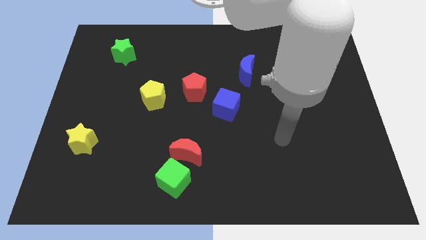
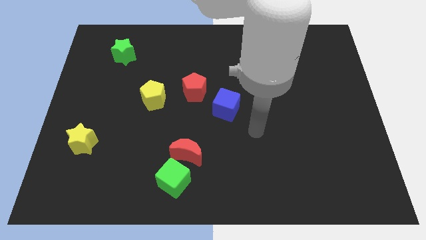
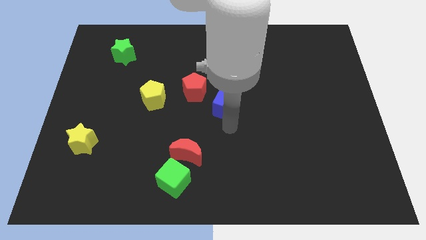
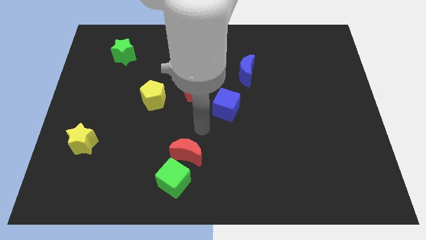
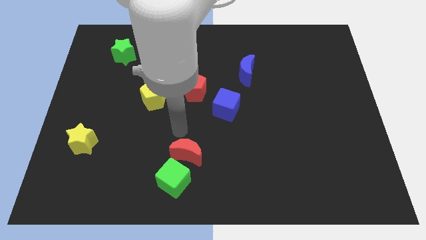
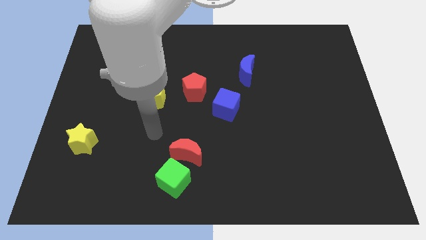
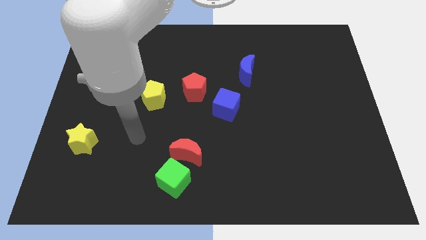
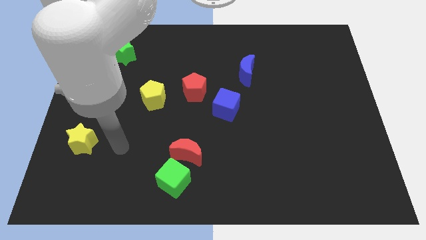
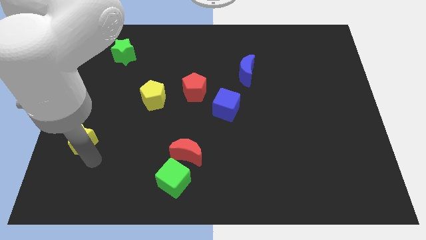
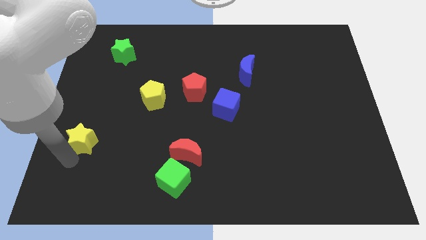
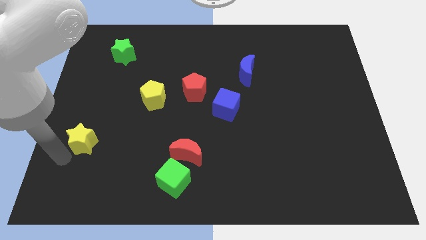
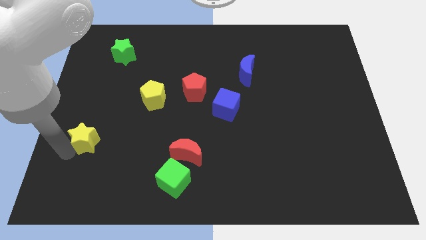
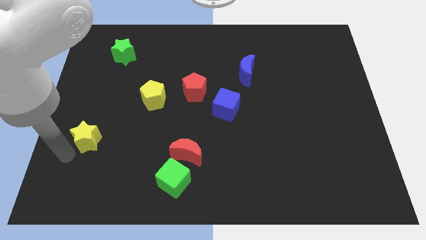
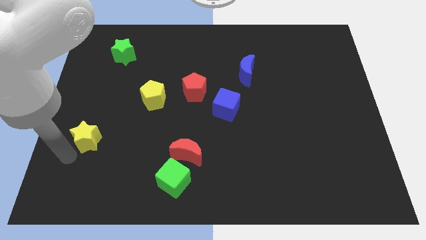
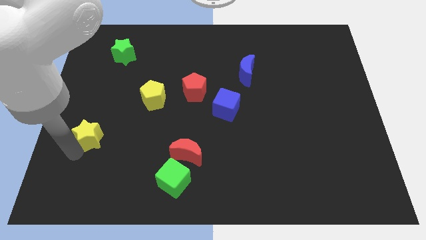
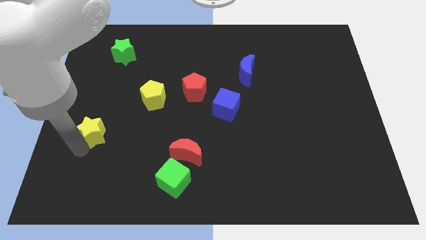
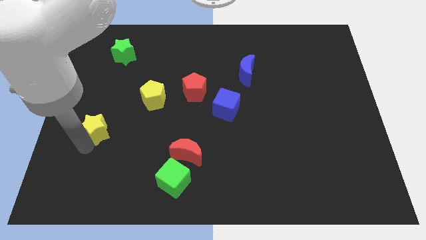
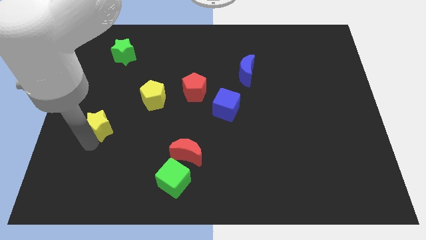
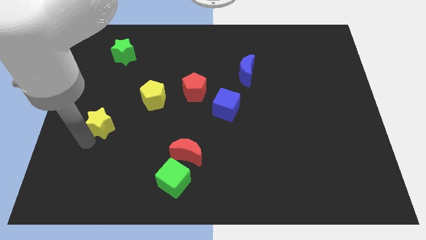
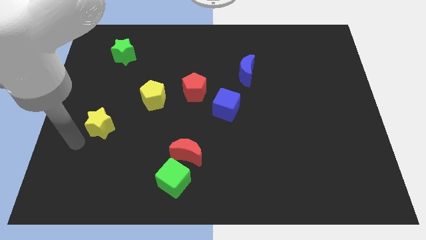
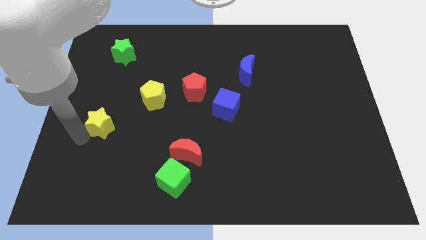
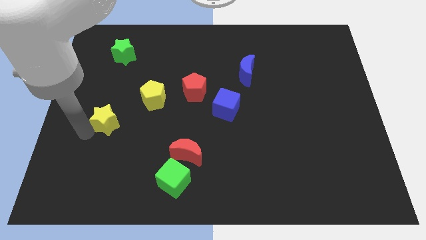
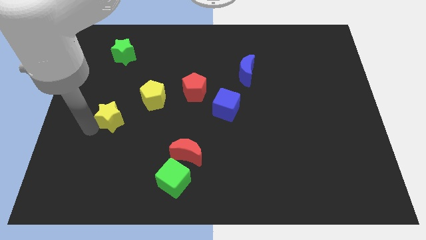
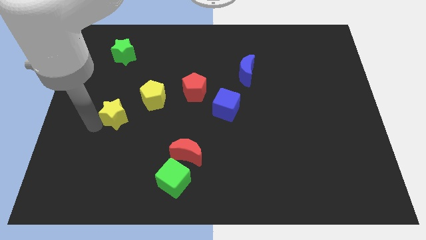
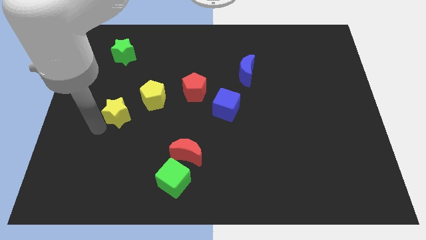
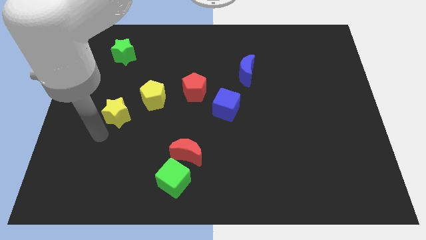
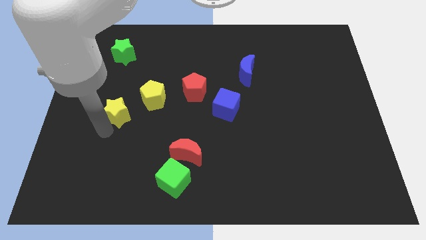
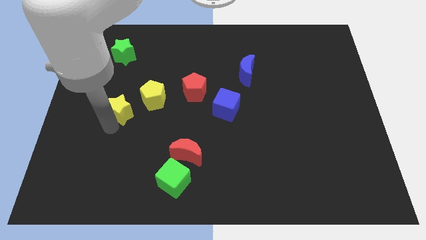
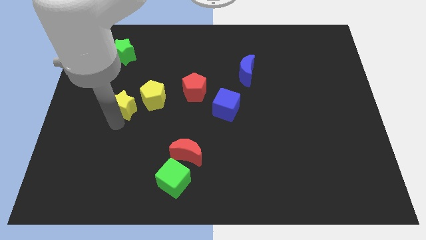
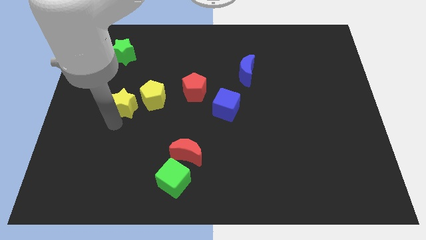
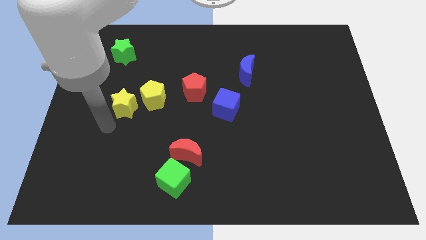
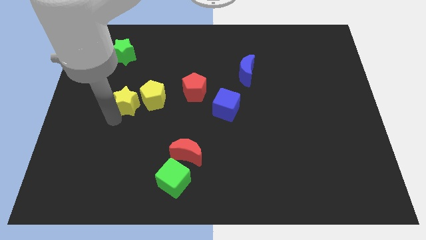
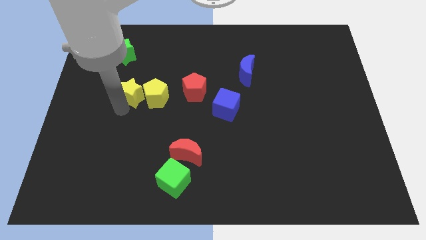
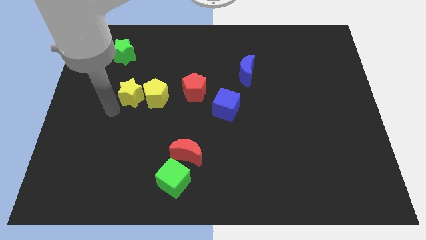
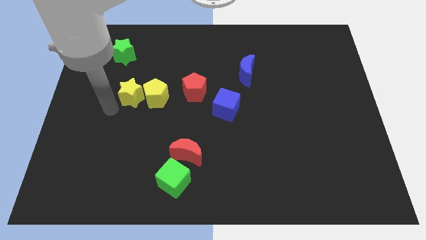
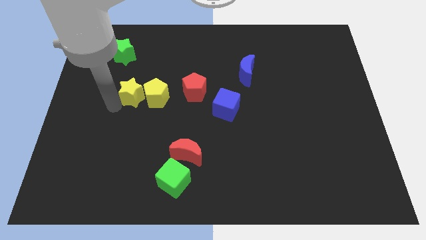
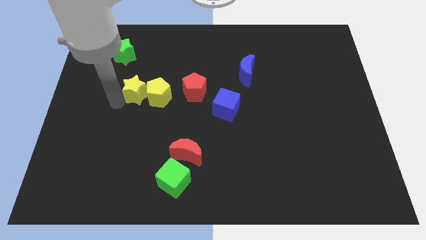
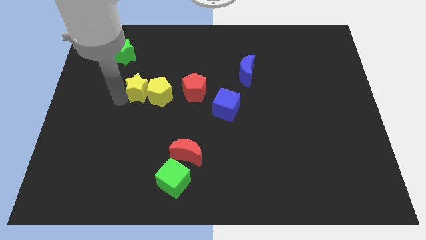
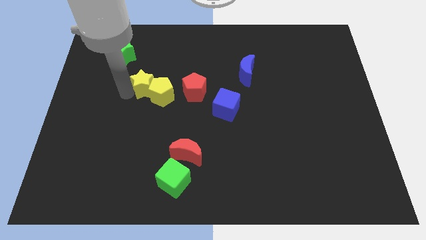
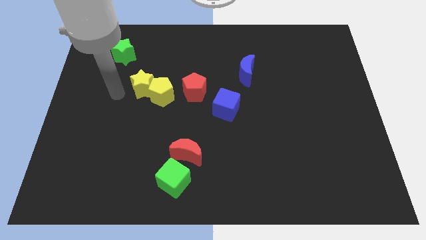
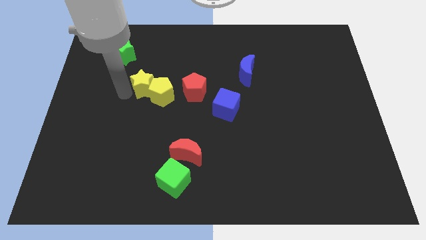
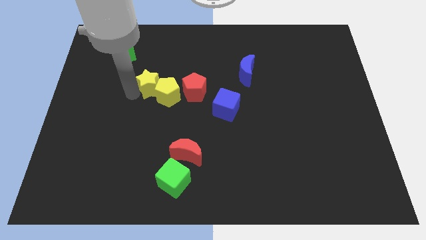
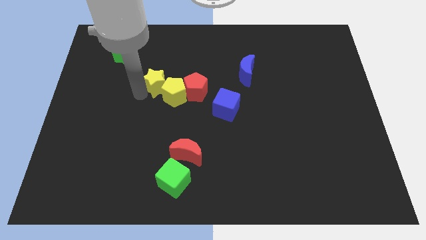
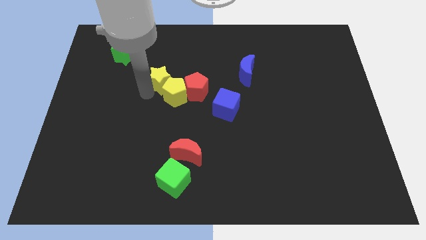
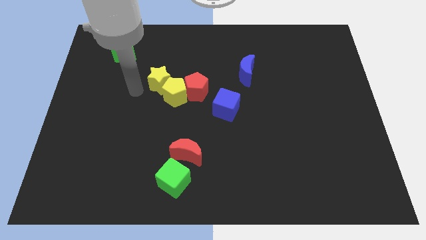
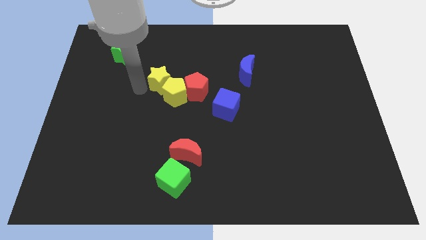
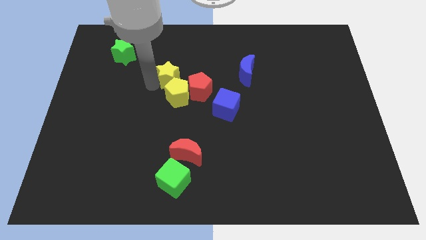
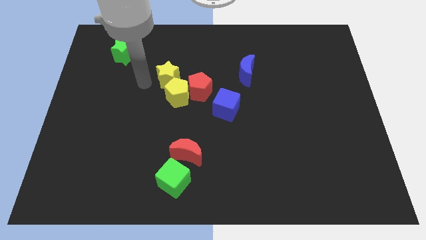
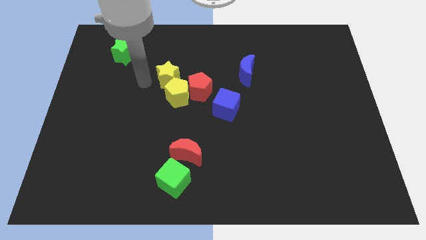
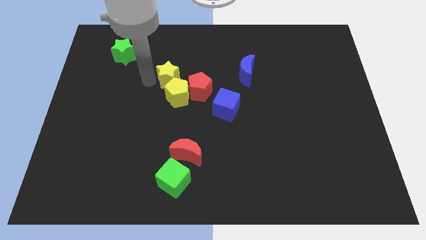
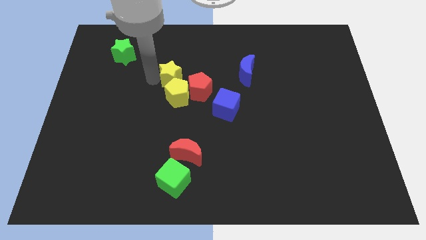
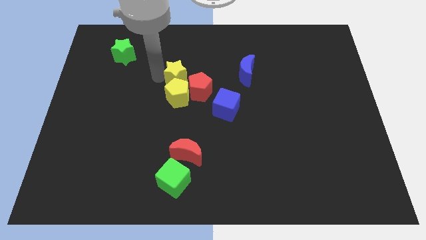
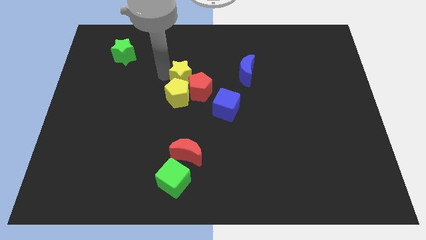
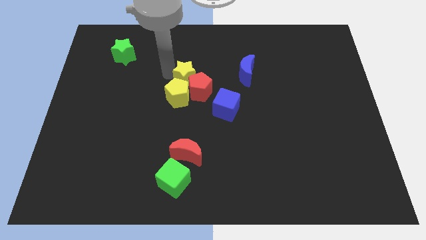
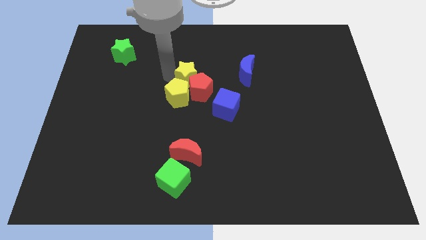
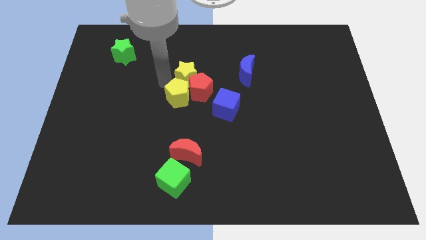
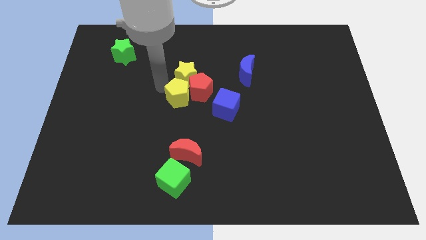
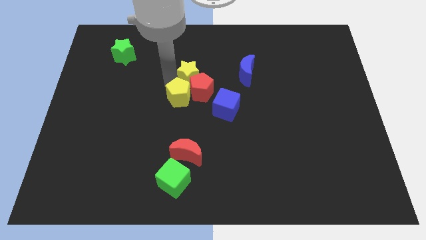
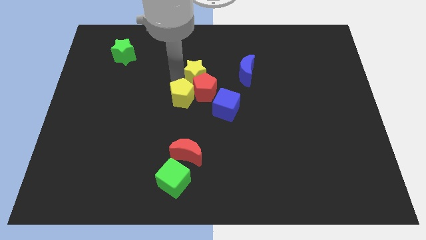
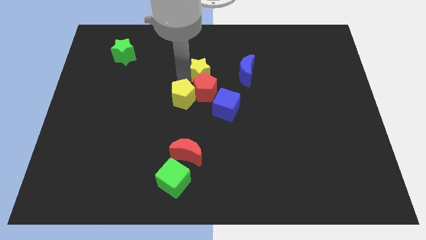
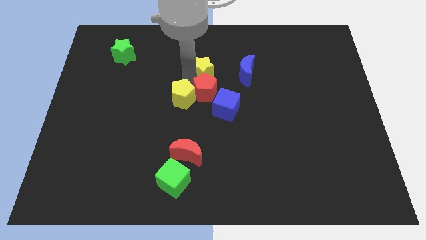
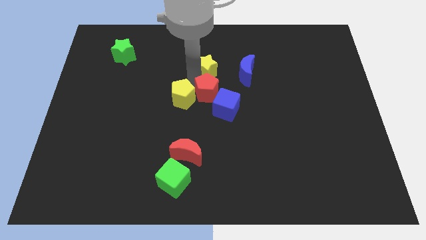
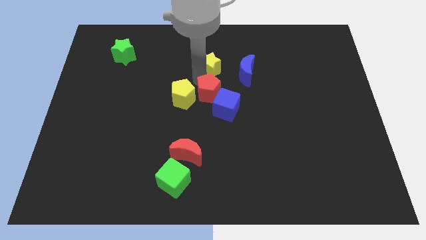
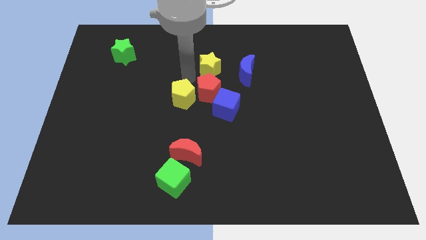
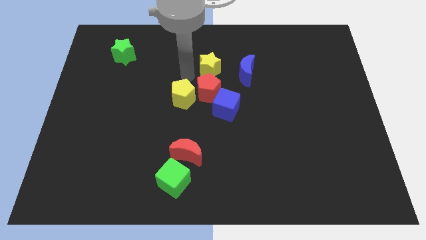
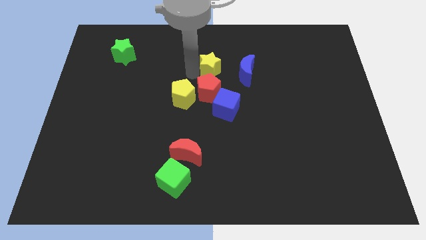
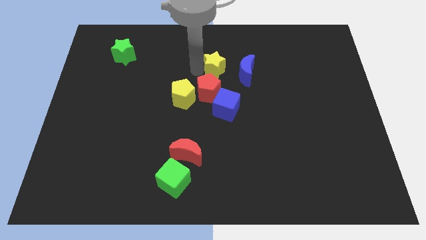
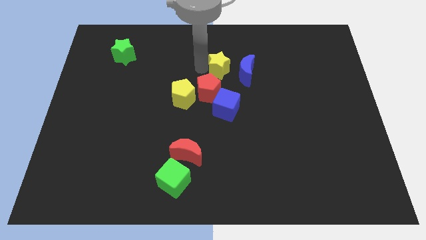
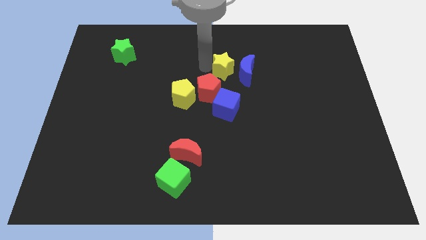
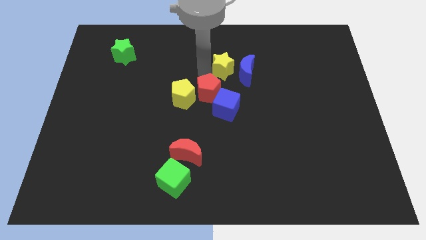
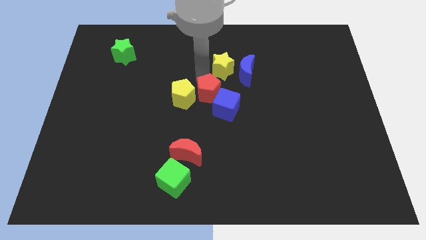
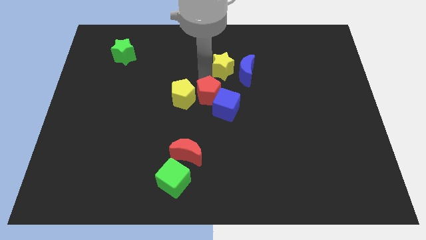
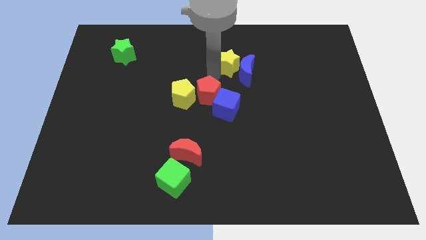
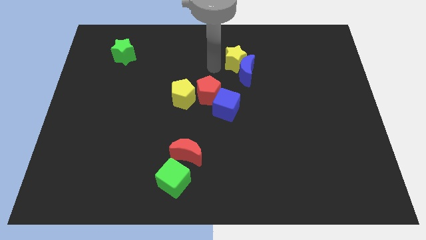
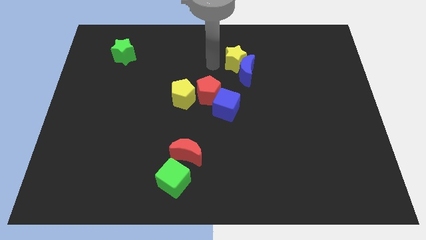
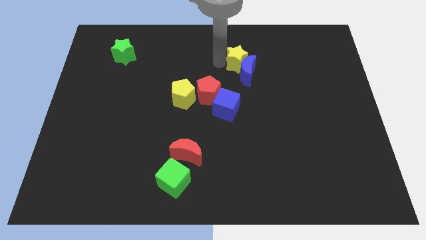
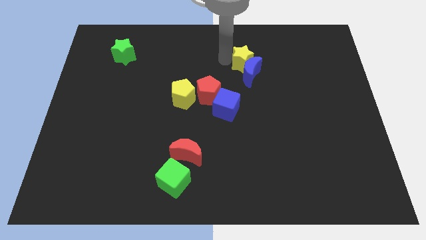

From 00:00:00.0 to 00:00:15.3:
push the yellow star to the top right side of the blue moon
